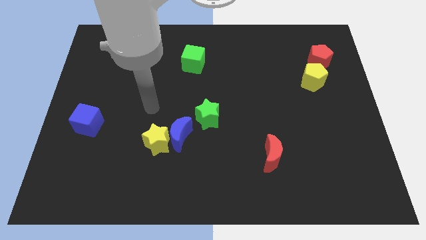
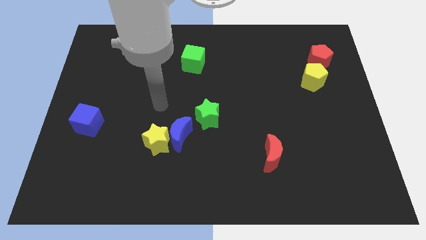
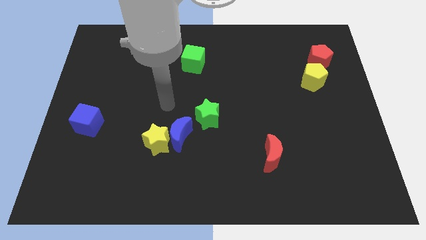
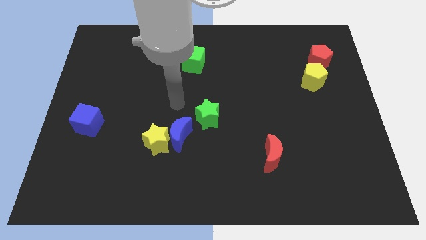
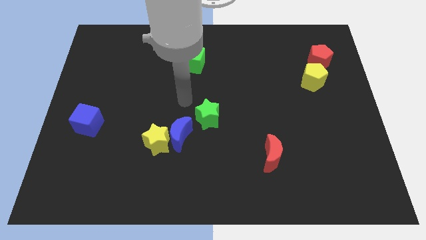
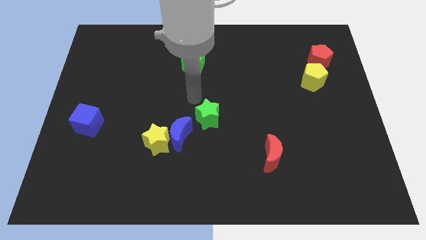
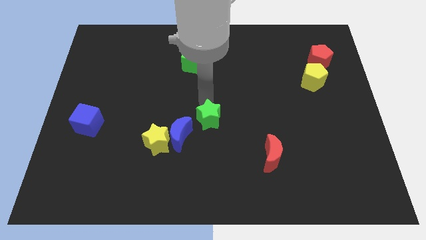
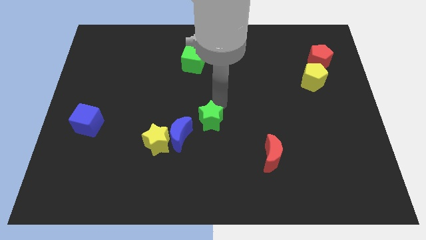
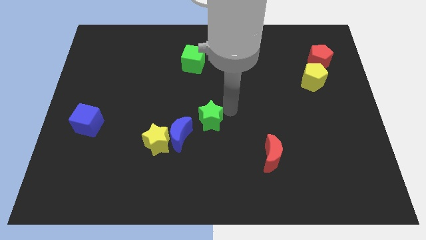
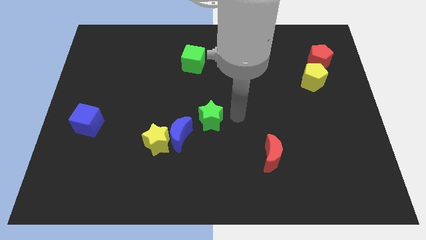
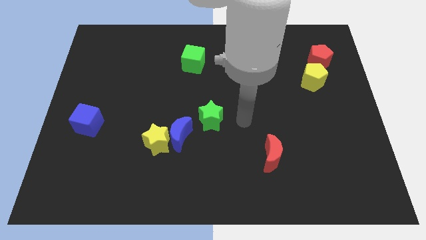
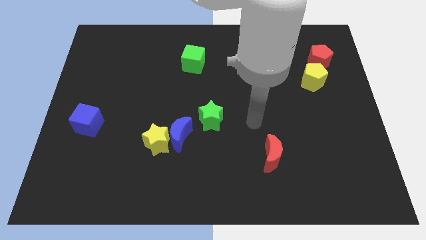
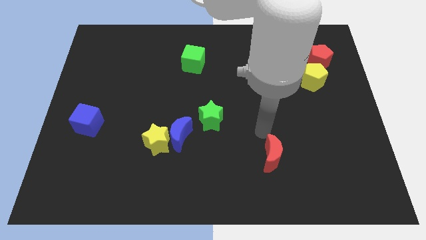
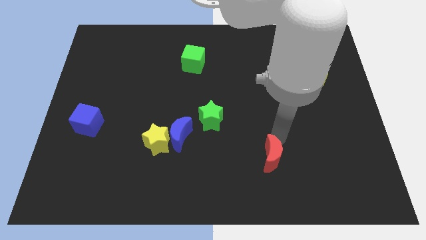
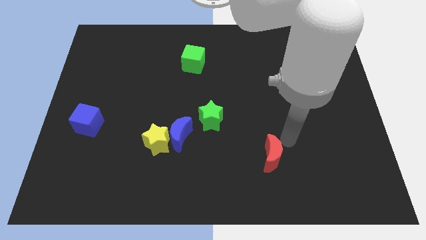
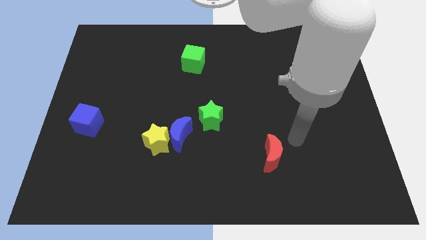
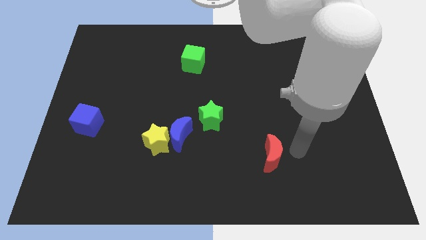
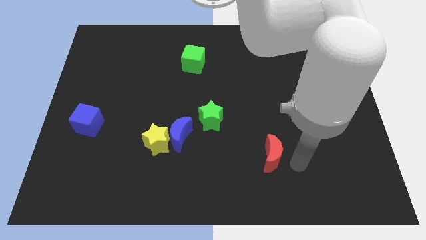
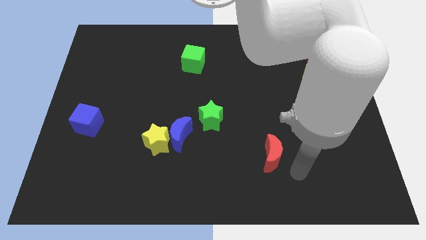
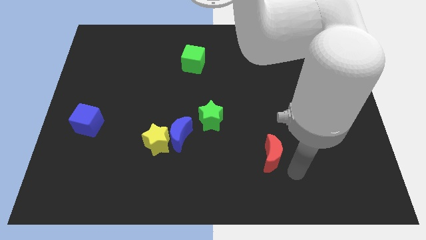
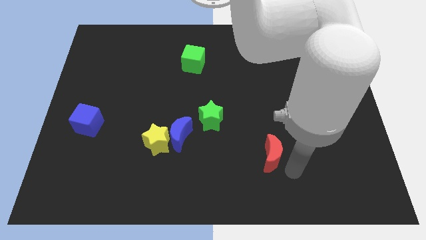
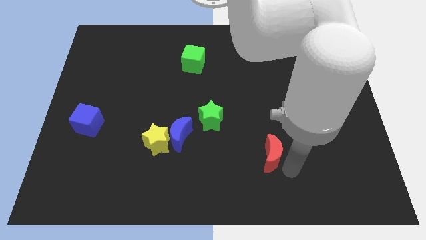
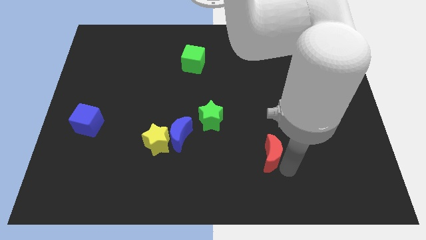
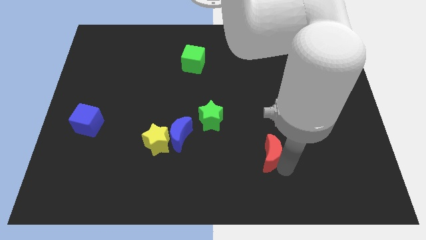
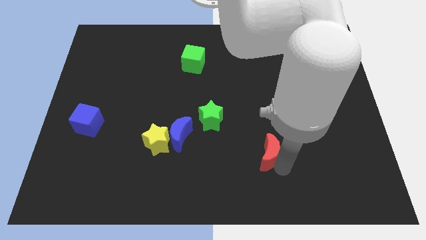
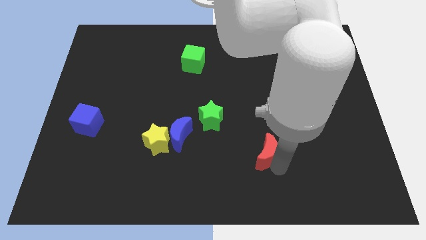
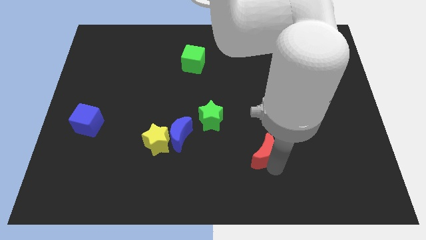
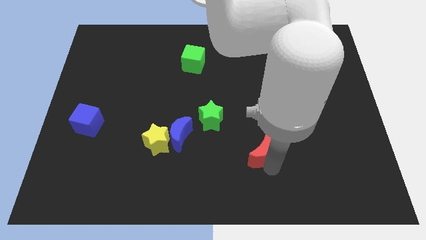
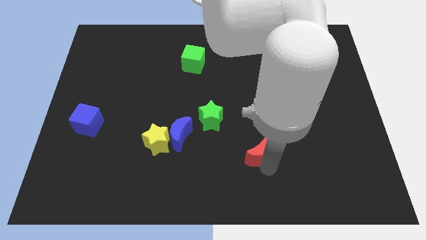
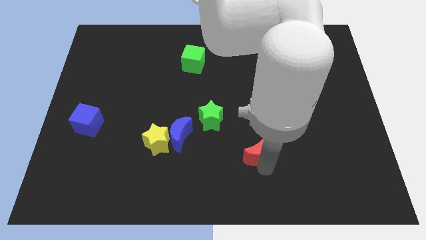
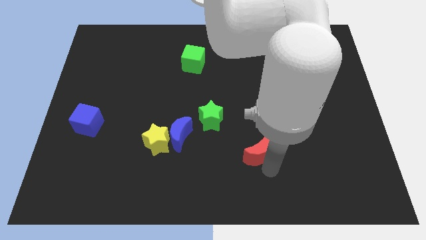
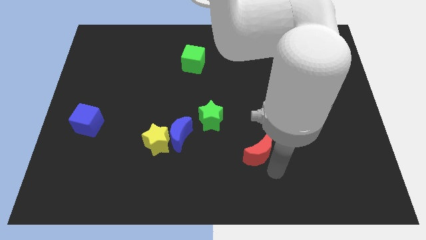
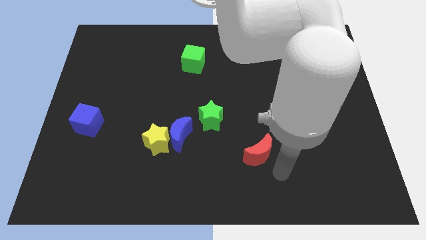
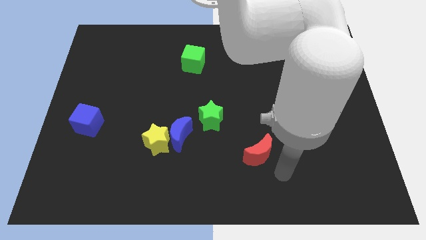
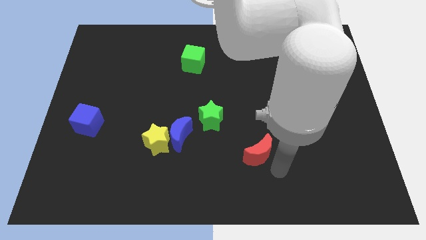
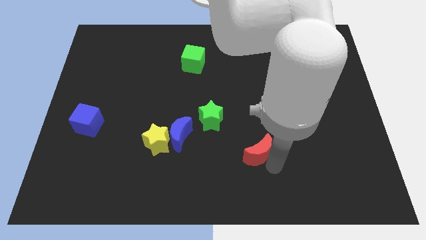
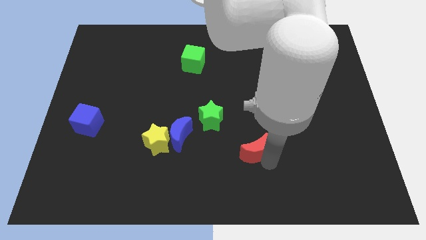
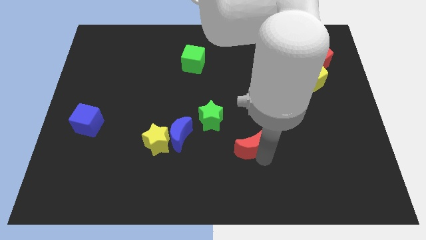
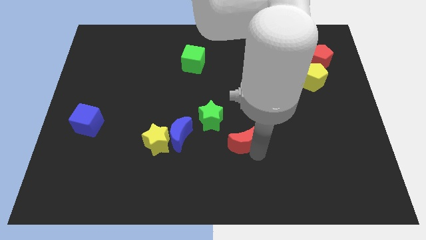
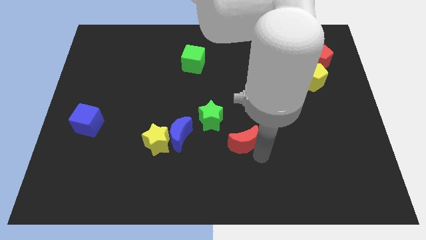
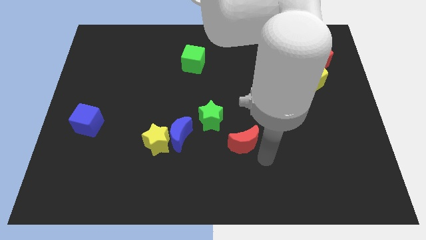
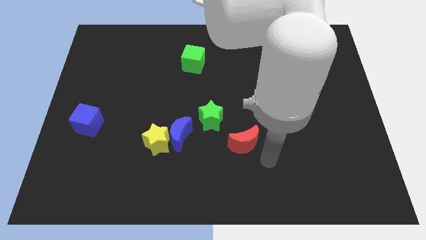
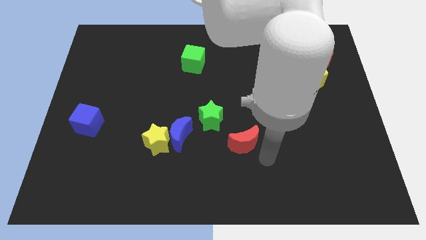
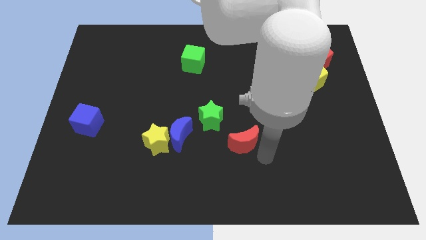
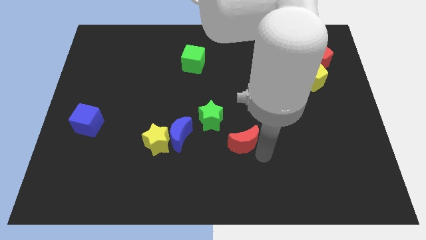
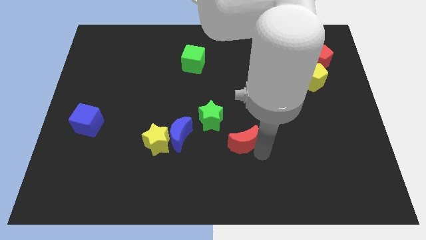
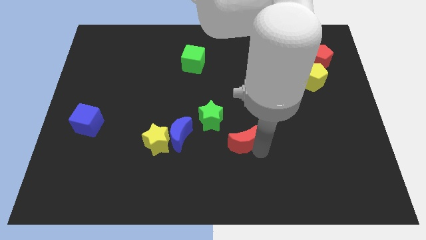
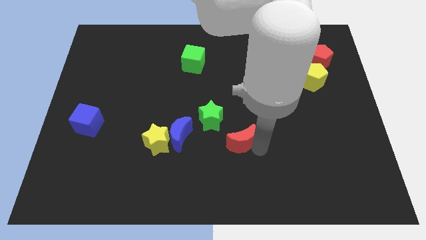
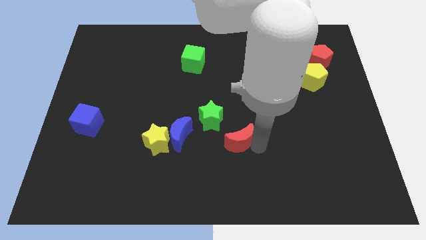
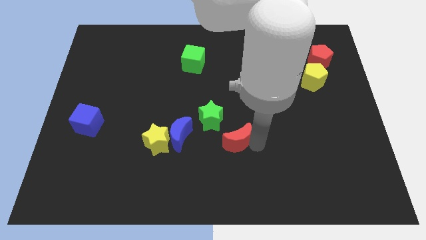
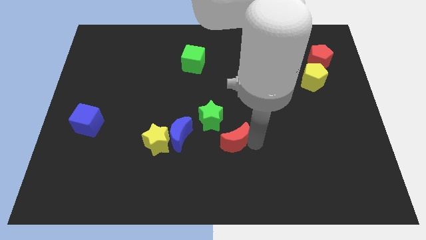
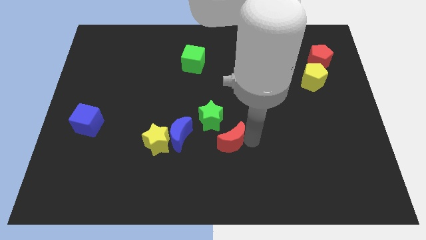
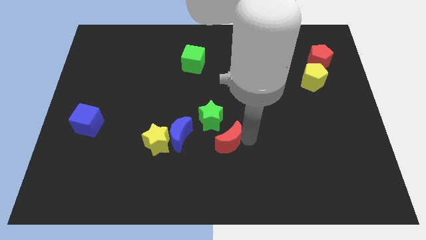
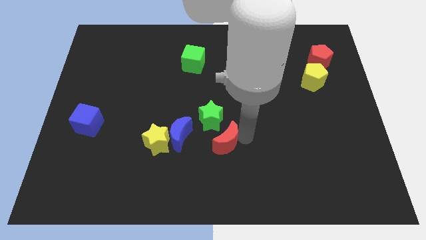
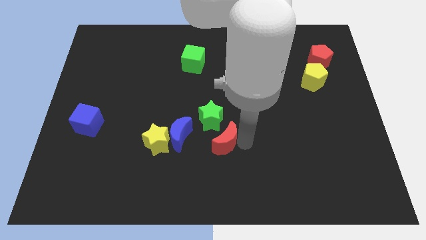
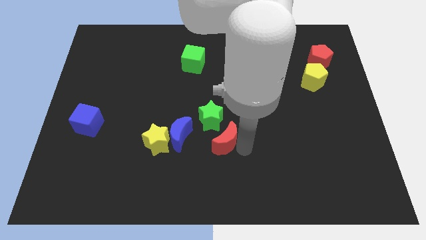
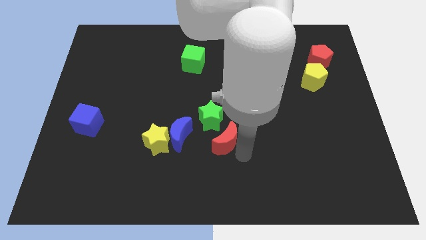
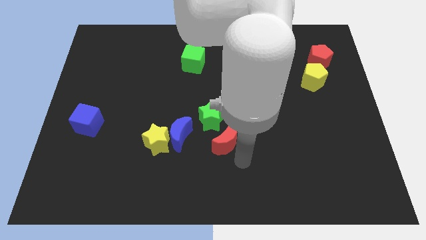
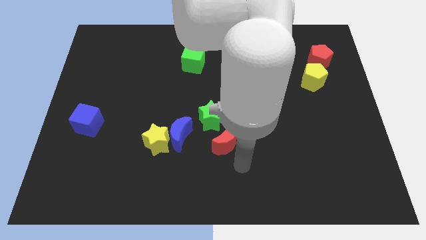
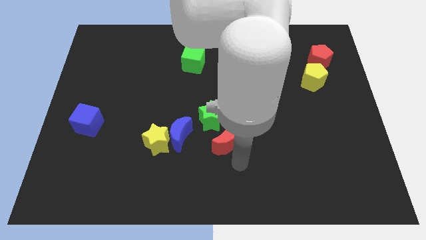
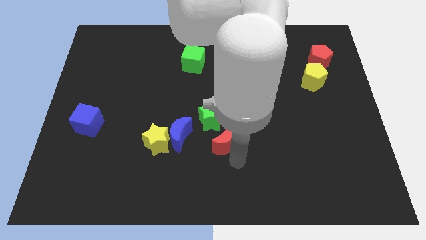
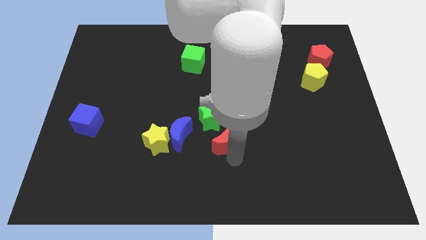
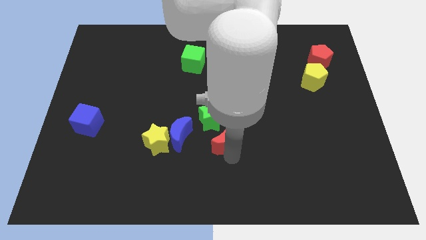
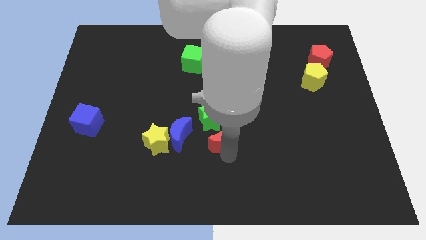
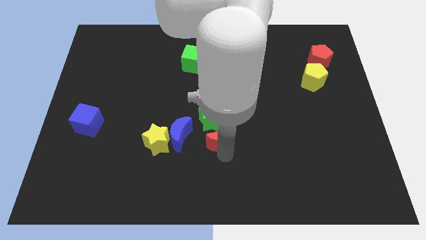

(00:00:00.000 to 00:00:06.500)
move the red moon next to the green star

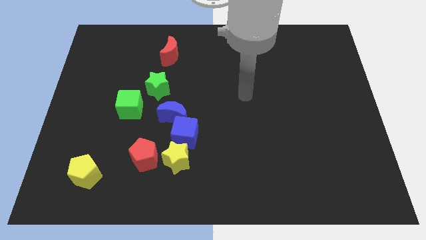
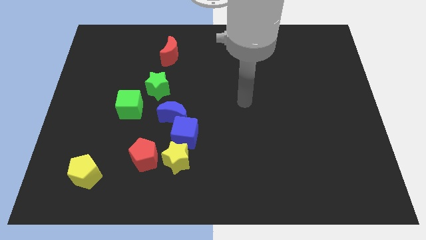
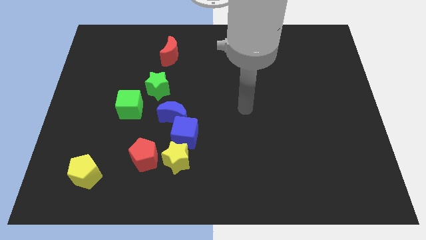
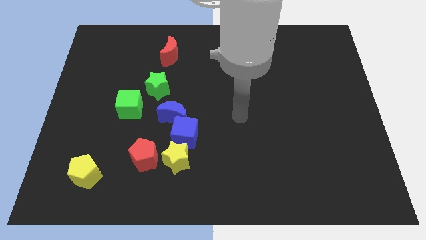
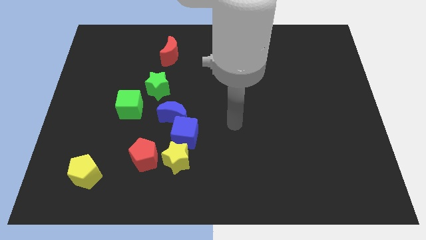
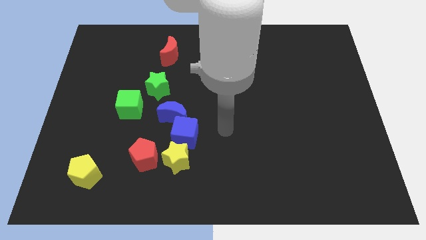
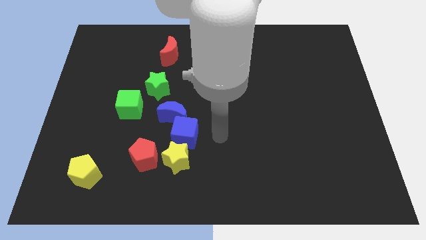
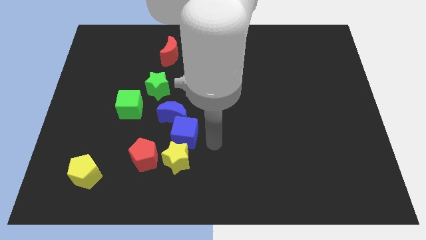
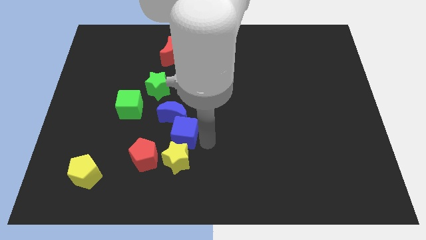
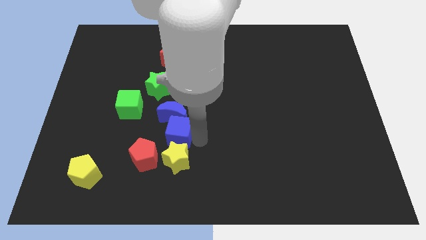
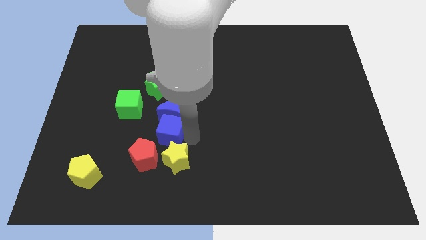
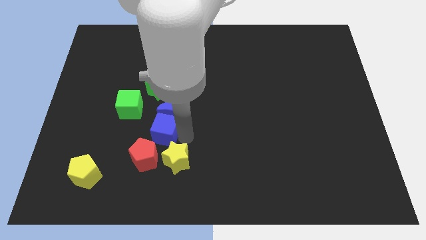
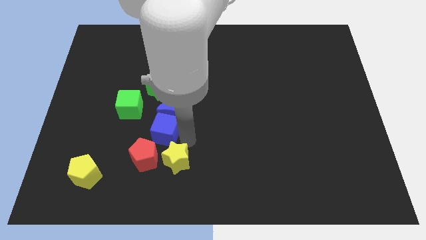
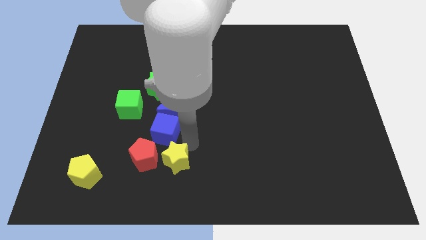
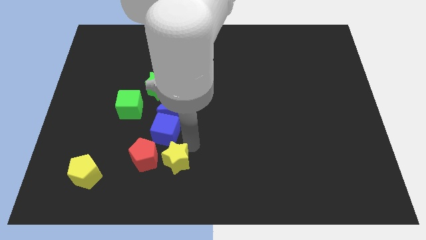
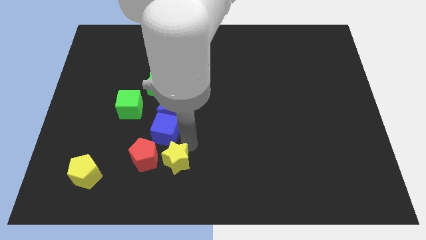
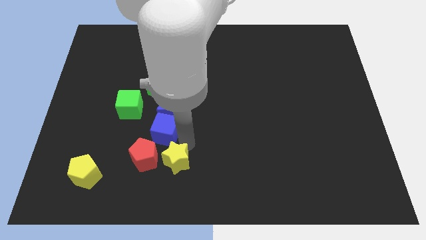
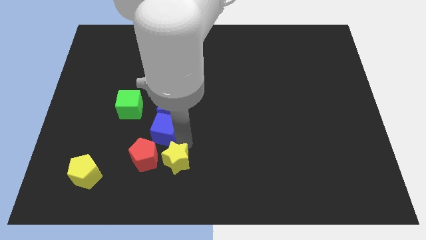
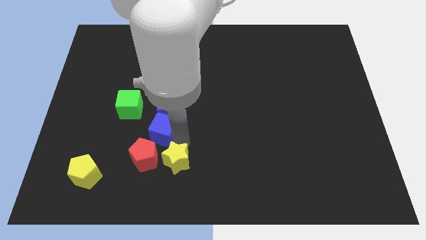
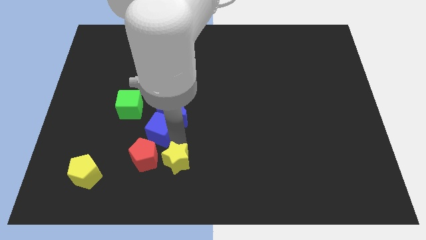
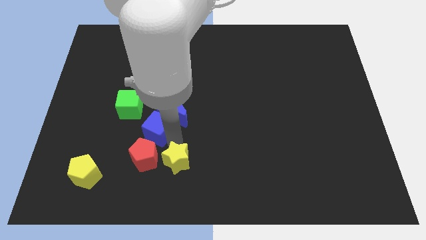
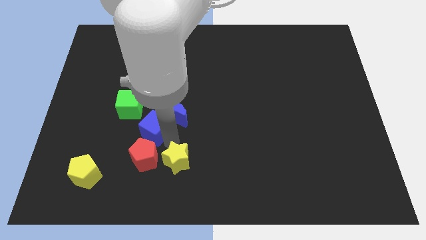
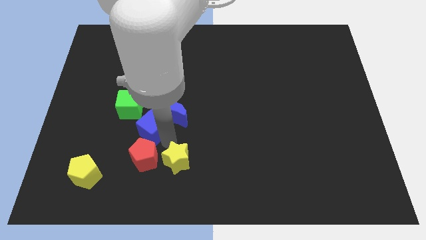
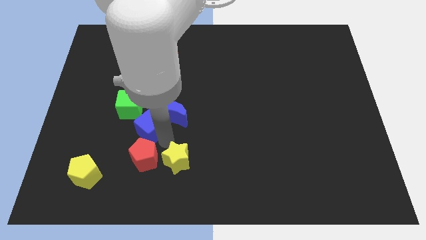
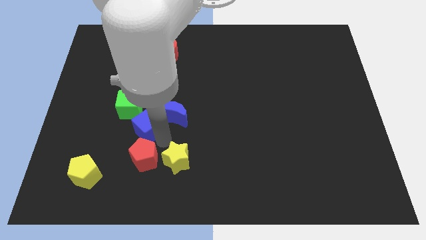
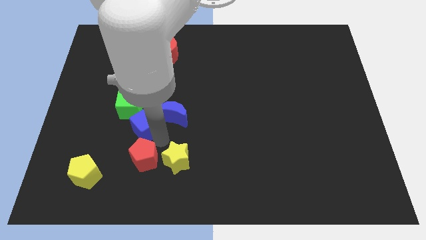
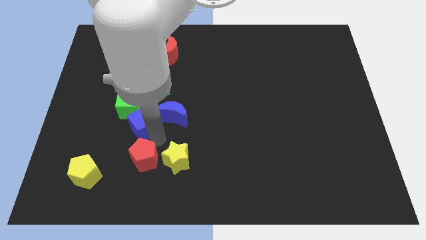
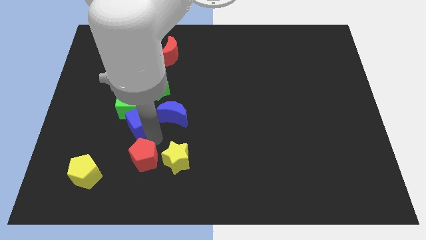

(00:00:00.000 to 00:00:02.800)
move the blue cube next to the green cube
